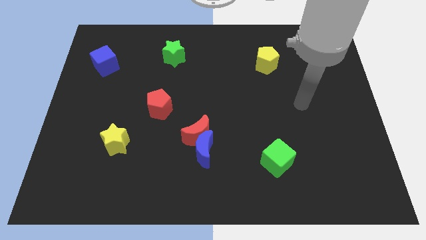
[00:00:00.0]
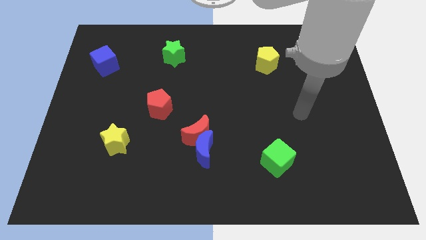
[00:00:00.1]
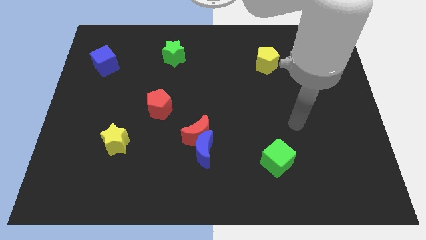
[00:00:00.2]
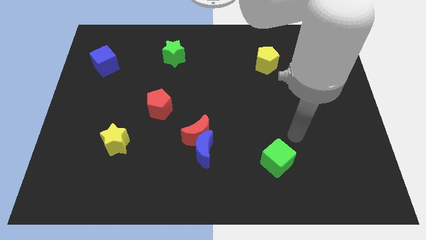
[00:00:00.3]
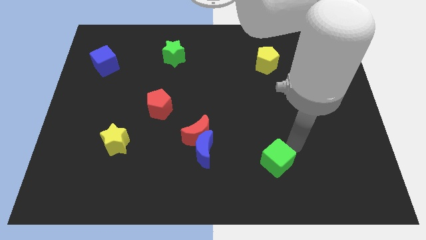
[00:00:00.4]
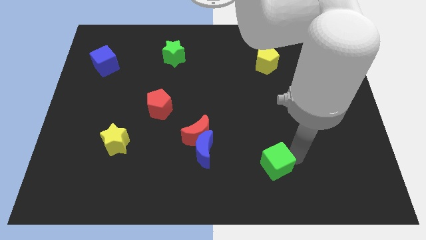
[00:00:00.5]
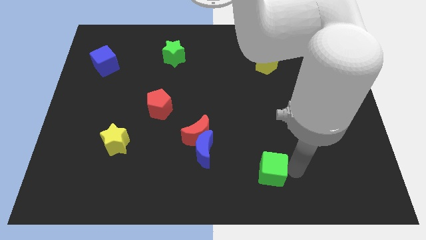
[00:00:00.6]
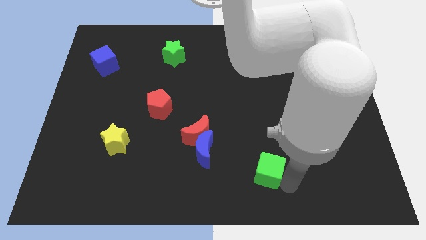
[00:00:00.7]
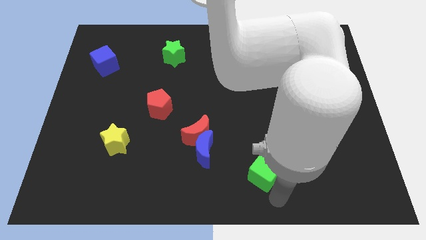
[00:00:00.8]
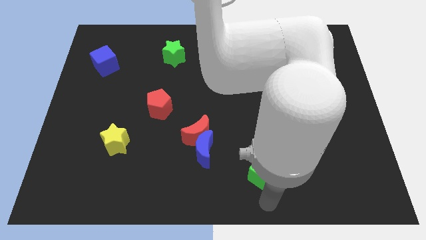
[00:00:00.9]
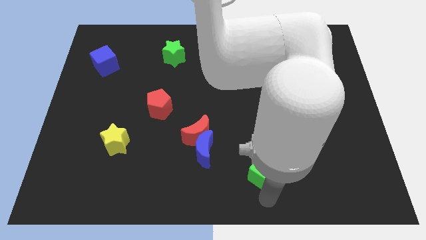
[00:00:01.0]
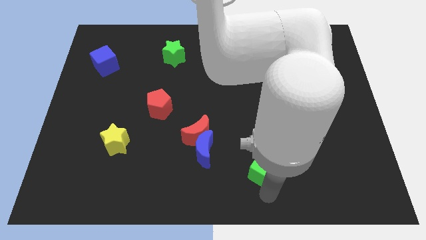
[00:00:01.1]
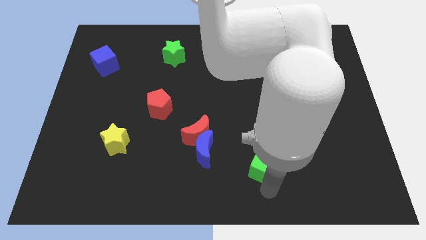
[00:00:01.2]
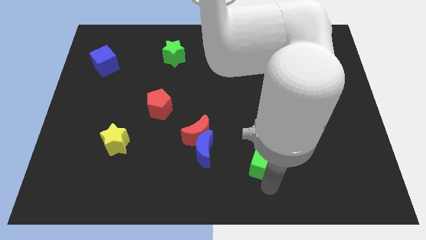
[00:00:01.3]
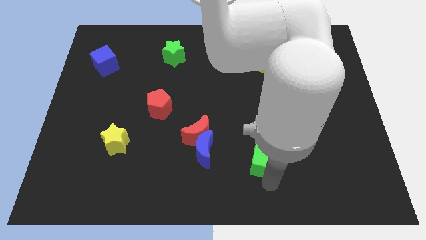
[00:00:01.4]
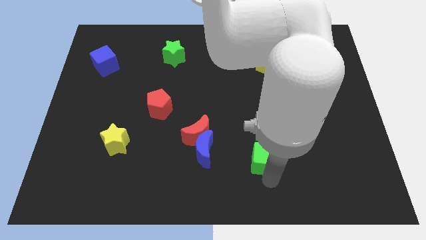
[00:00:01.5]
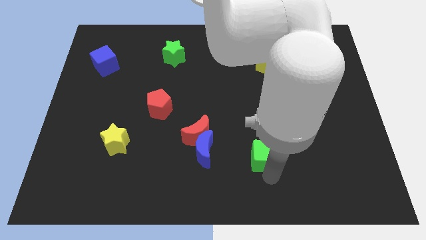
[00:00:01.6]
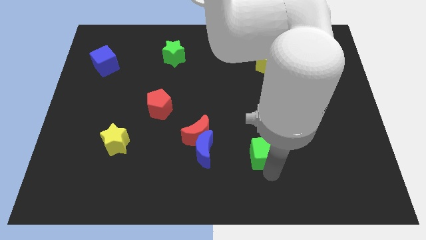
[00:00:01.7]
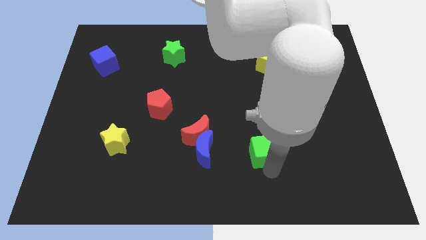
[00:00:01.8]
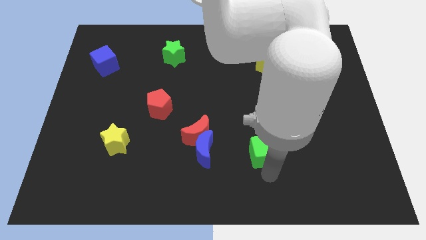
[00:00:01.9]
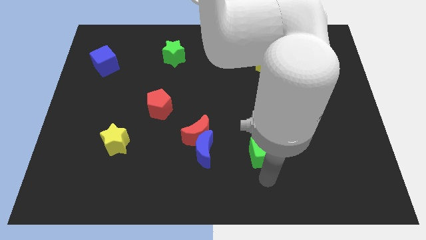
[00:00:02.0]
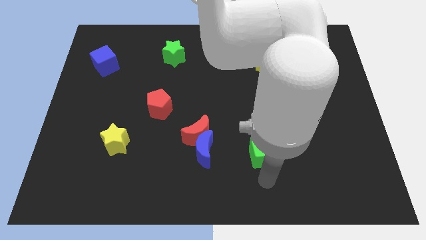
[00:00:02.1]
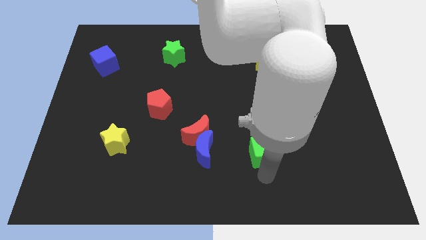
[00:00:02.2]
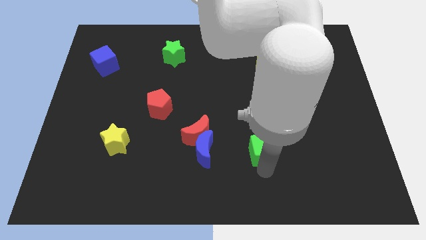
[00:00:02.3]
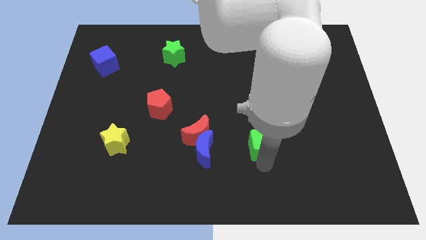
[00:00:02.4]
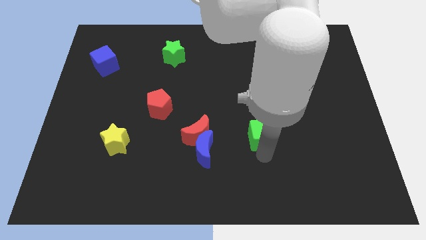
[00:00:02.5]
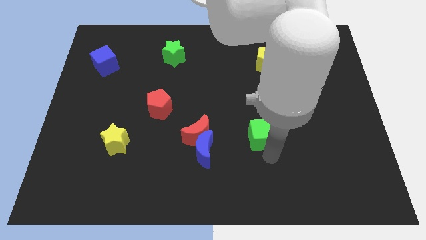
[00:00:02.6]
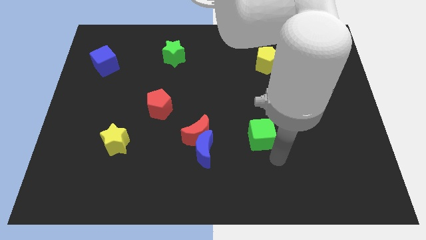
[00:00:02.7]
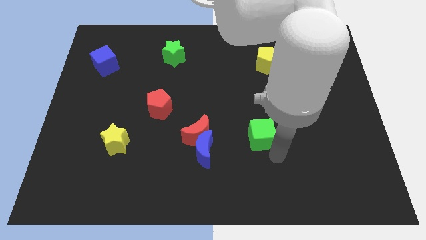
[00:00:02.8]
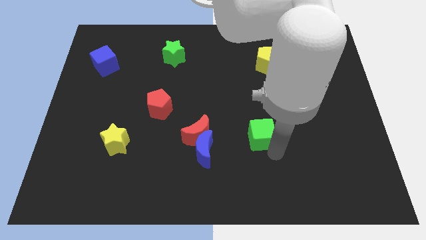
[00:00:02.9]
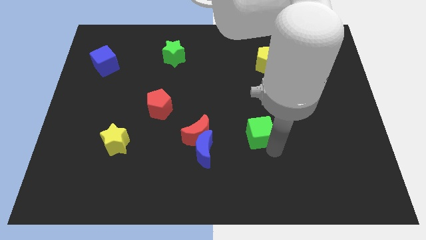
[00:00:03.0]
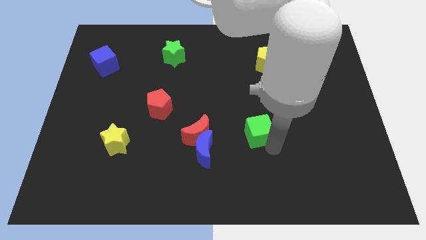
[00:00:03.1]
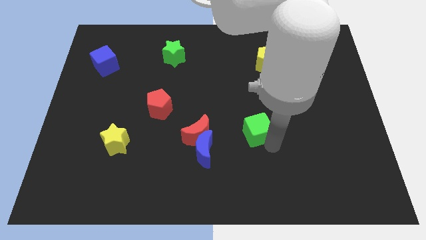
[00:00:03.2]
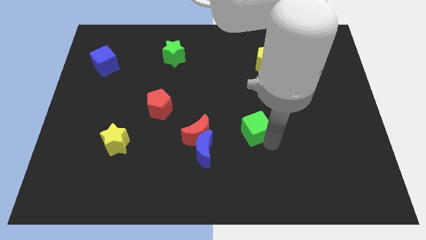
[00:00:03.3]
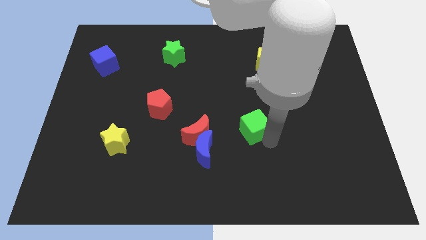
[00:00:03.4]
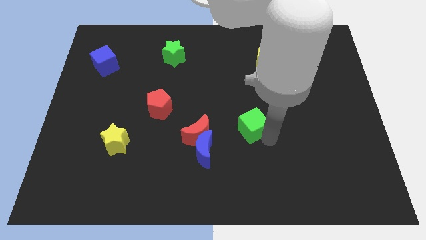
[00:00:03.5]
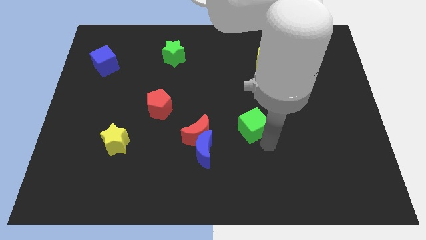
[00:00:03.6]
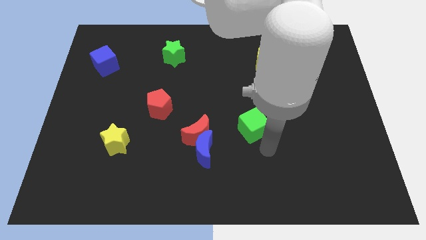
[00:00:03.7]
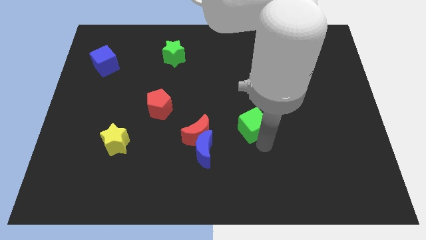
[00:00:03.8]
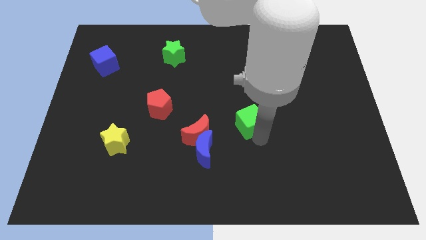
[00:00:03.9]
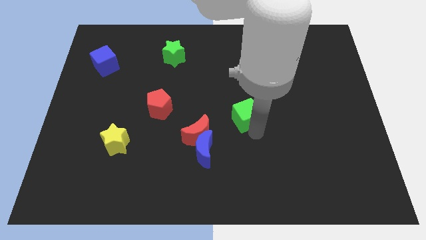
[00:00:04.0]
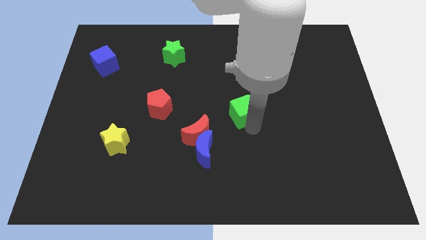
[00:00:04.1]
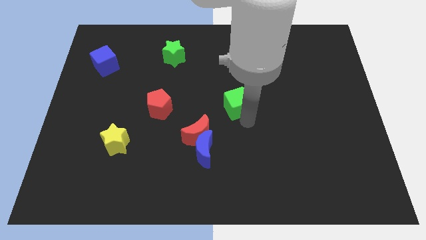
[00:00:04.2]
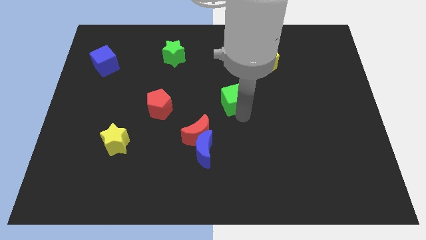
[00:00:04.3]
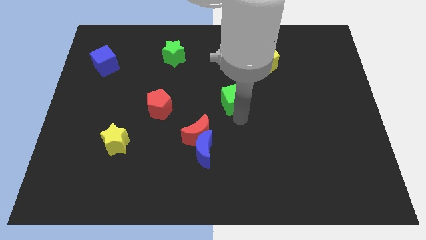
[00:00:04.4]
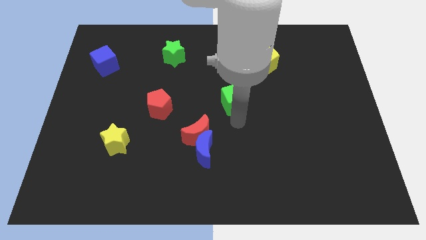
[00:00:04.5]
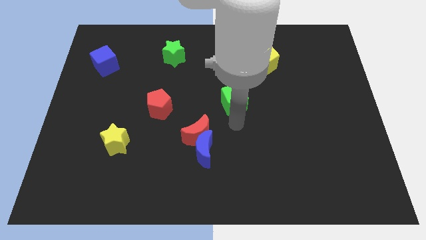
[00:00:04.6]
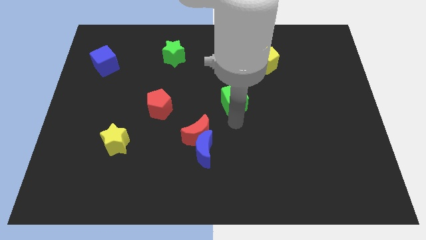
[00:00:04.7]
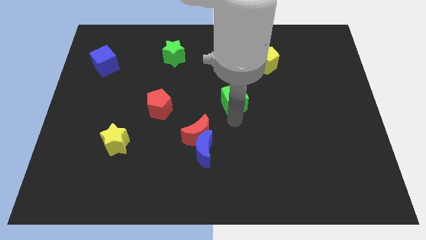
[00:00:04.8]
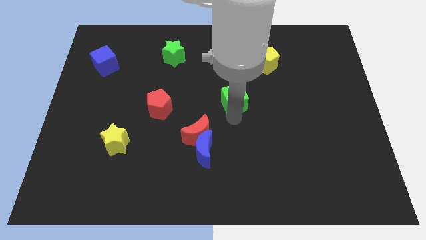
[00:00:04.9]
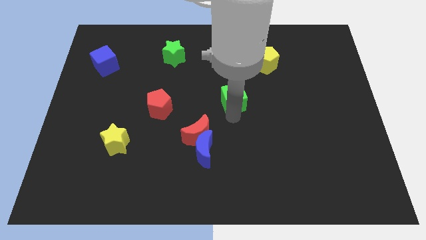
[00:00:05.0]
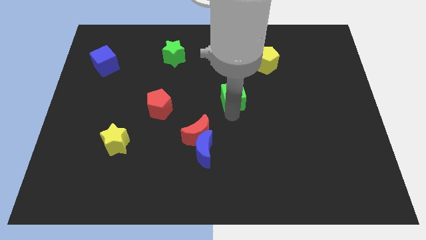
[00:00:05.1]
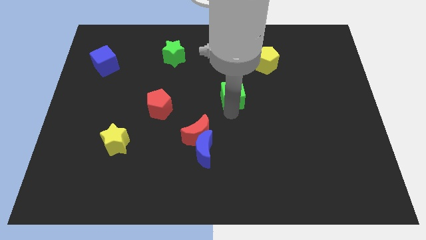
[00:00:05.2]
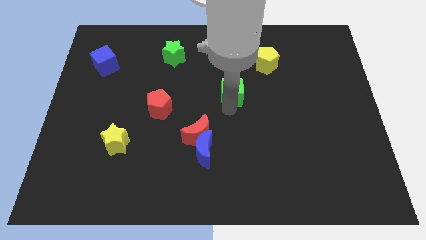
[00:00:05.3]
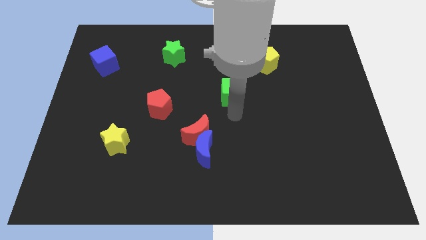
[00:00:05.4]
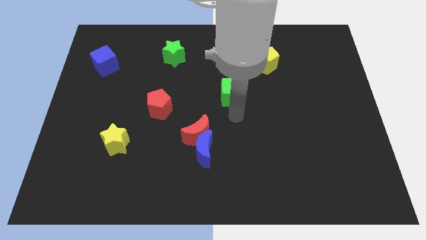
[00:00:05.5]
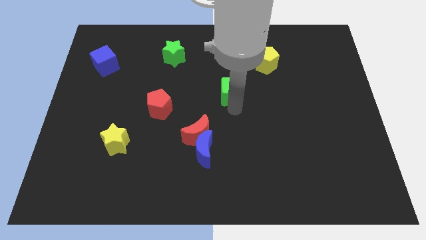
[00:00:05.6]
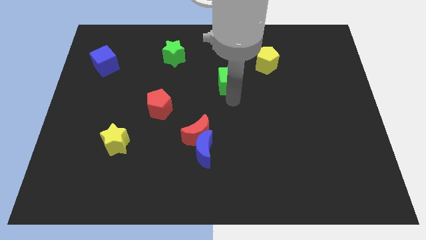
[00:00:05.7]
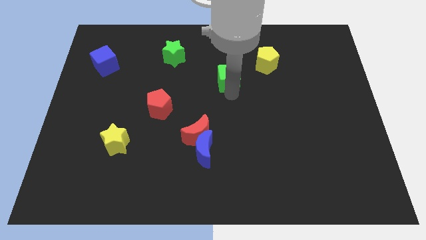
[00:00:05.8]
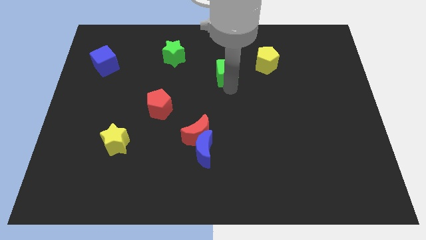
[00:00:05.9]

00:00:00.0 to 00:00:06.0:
slide the green cube to the left of the yellow pentagon
